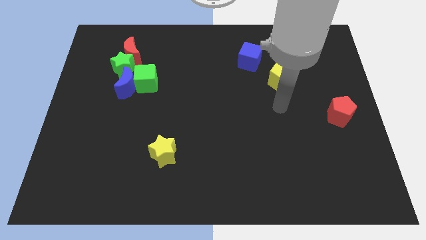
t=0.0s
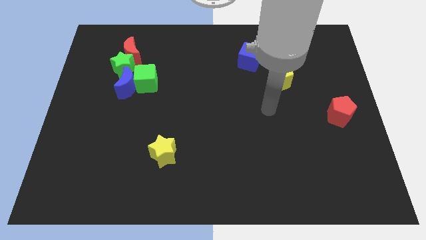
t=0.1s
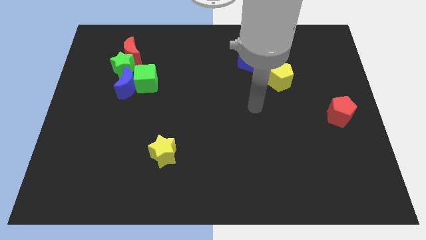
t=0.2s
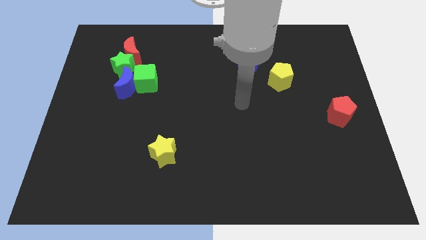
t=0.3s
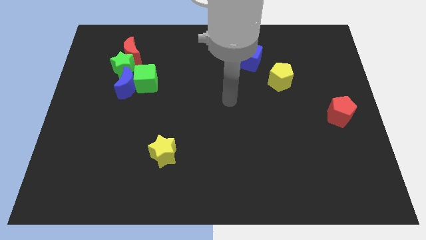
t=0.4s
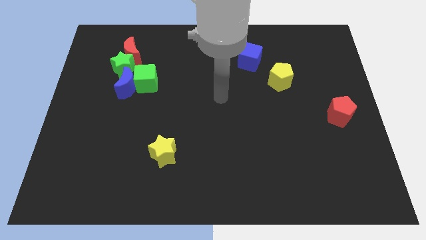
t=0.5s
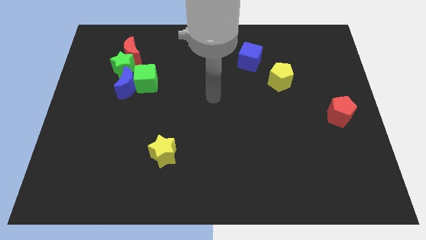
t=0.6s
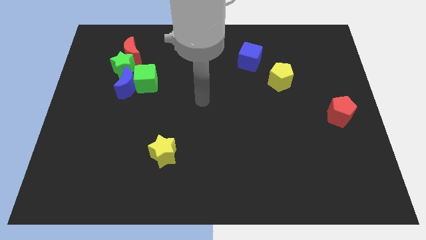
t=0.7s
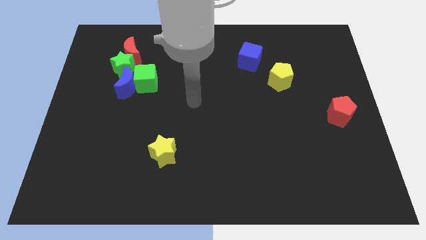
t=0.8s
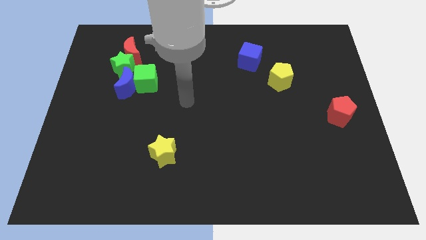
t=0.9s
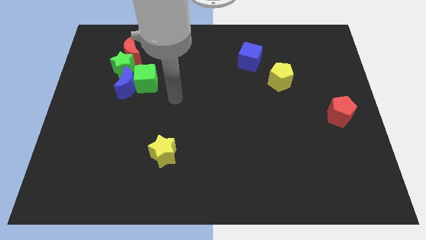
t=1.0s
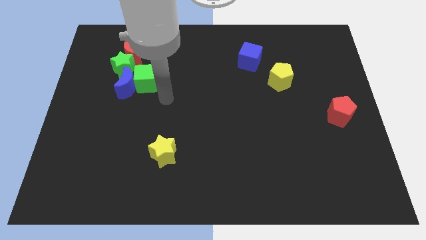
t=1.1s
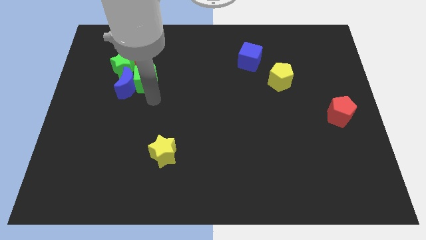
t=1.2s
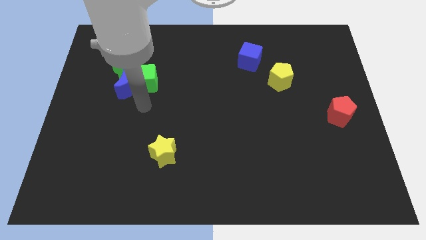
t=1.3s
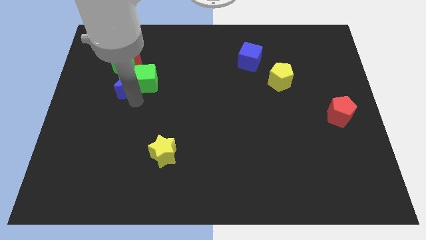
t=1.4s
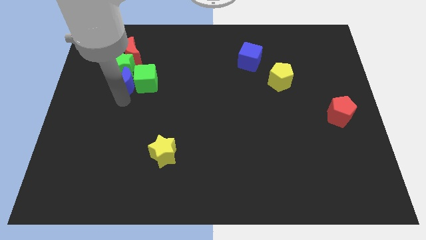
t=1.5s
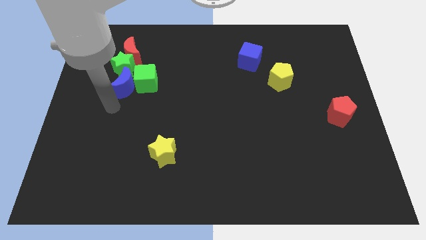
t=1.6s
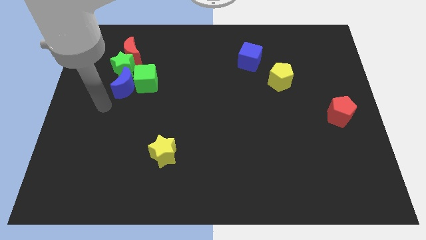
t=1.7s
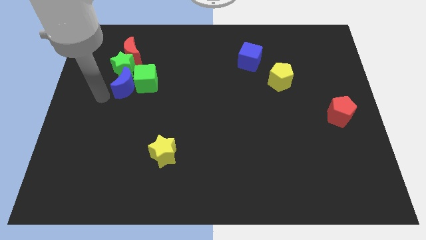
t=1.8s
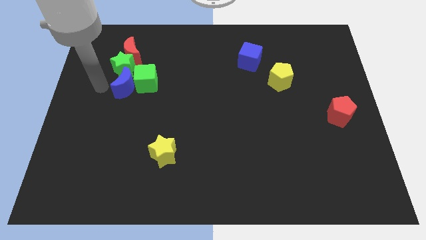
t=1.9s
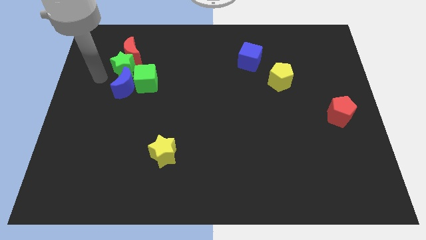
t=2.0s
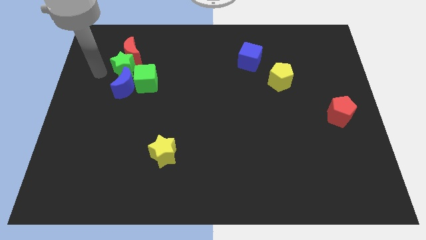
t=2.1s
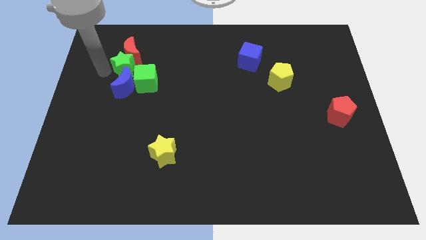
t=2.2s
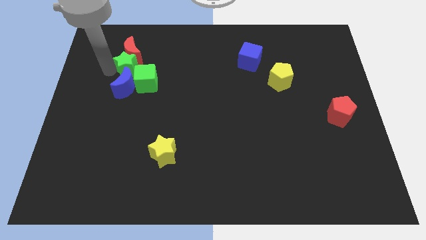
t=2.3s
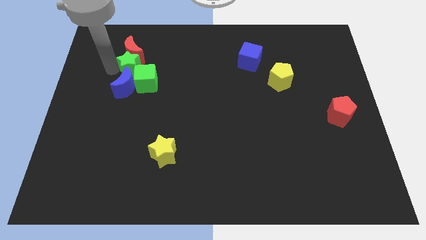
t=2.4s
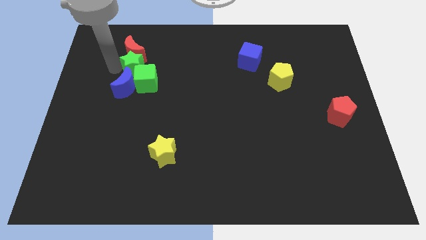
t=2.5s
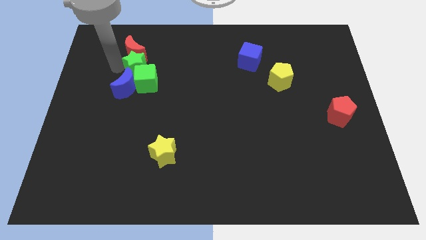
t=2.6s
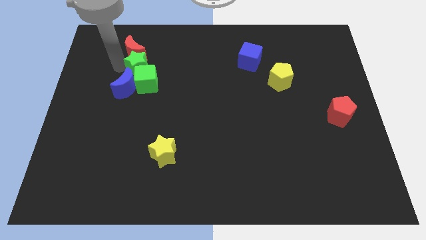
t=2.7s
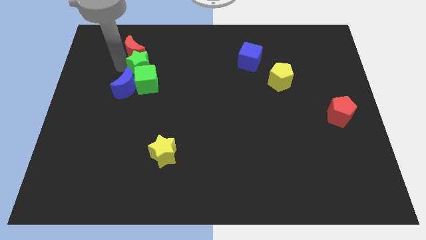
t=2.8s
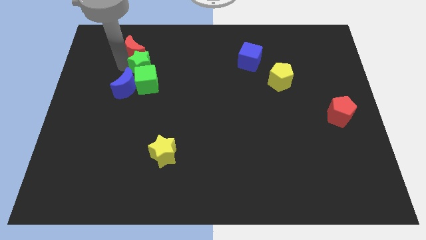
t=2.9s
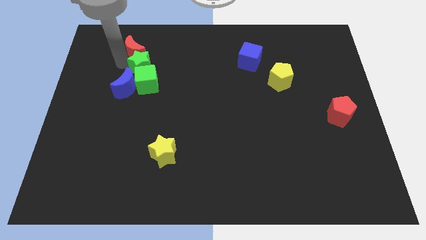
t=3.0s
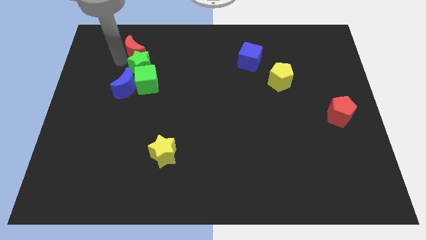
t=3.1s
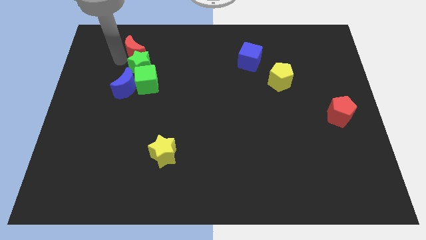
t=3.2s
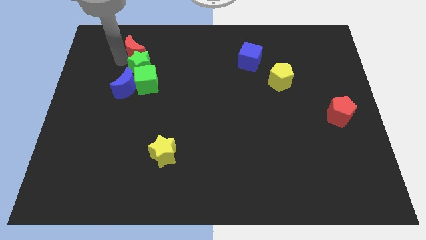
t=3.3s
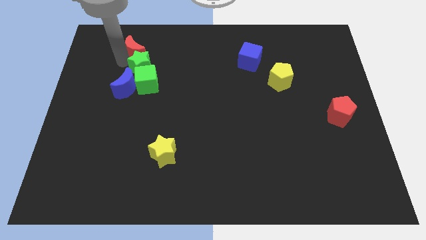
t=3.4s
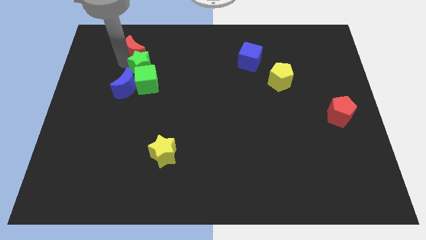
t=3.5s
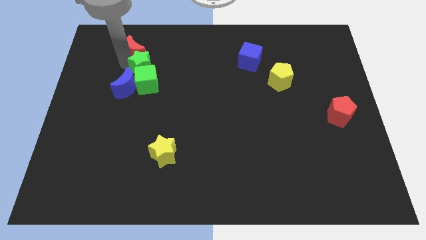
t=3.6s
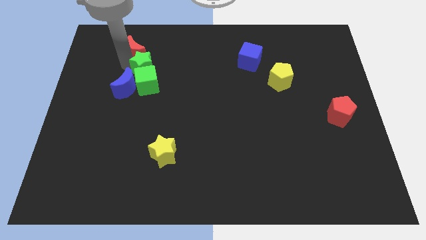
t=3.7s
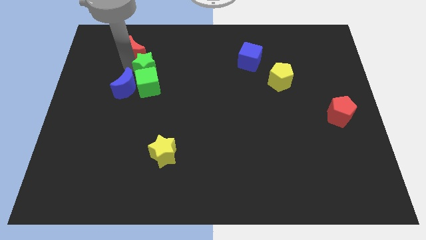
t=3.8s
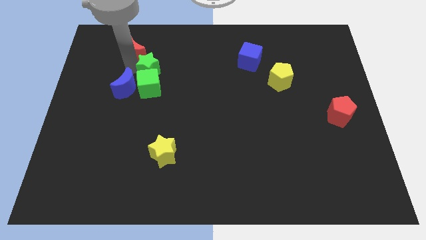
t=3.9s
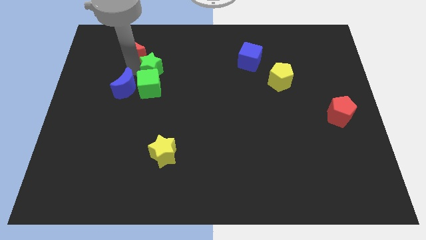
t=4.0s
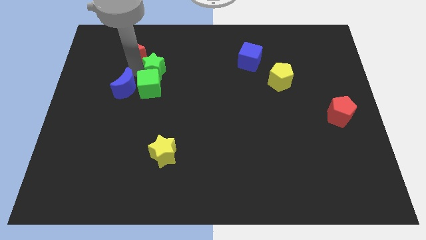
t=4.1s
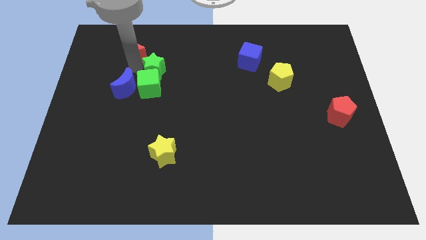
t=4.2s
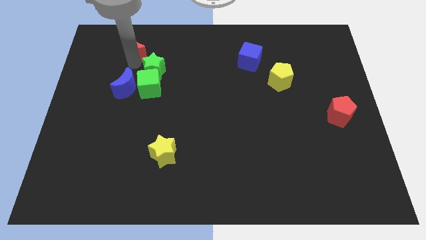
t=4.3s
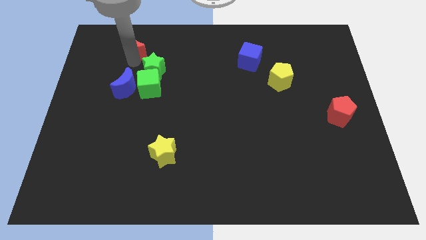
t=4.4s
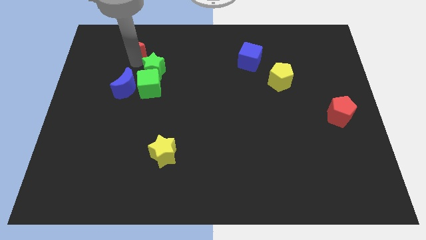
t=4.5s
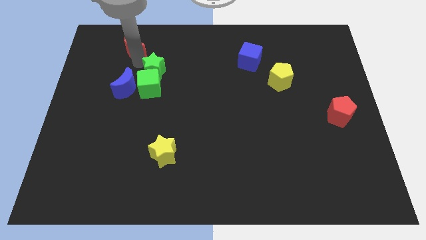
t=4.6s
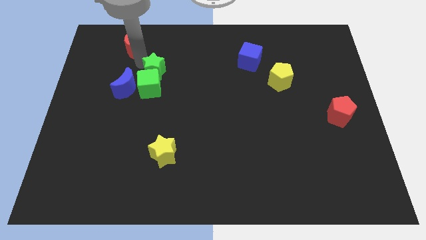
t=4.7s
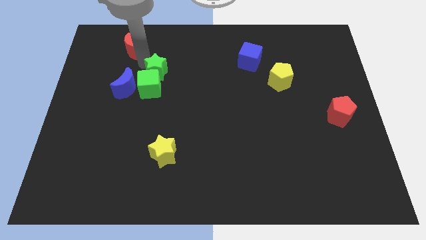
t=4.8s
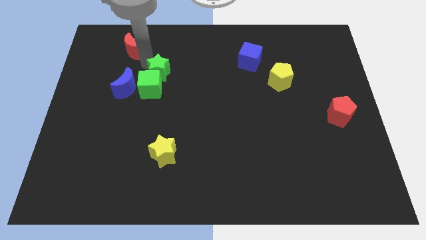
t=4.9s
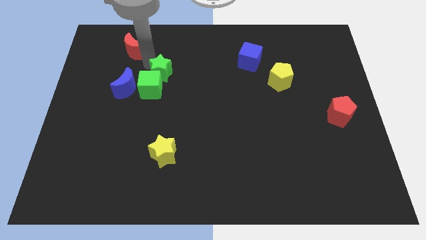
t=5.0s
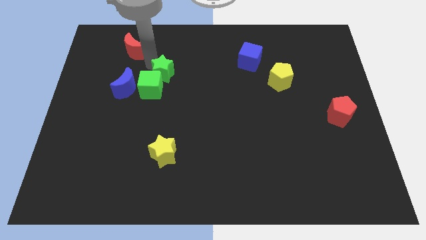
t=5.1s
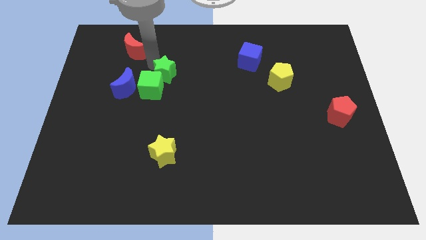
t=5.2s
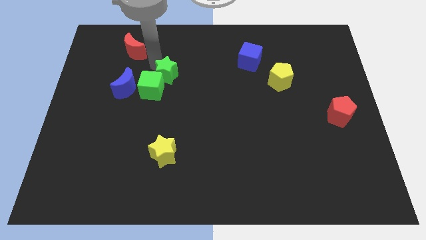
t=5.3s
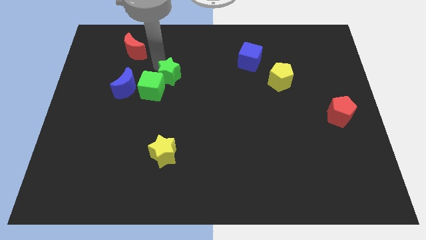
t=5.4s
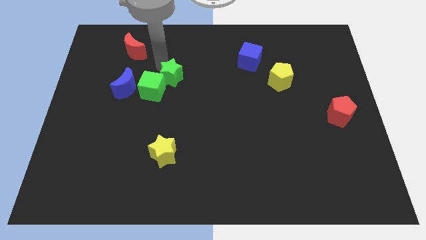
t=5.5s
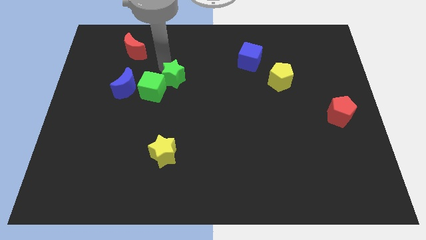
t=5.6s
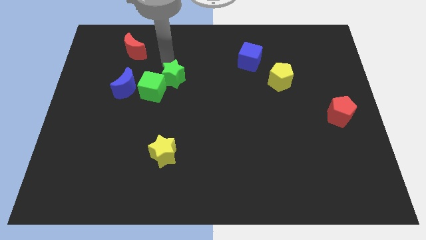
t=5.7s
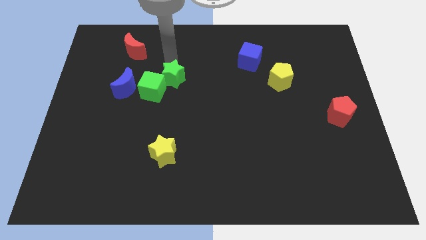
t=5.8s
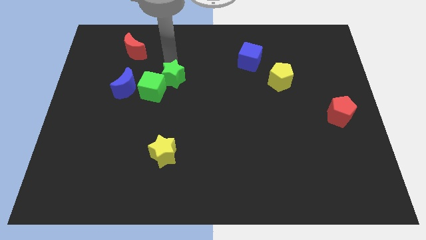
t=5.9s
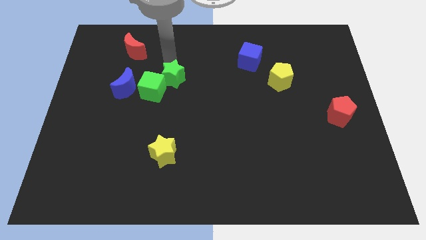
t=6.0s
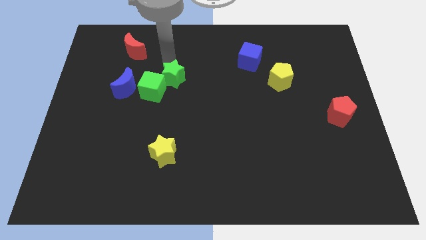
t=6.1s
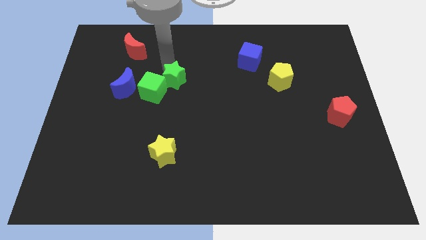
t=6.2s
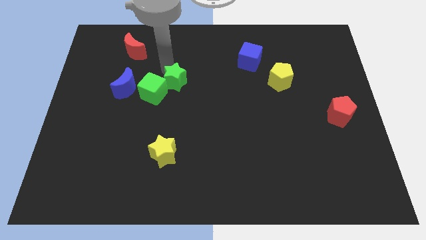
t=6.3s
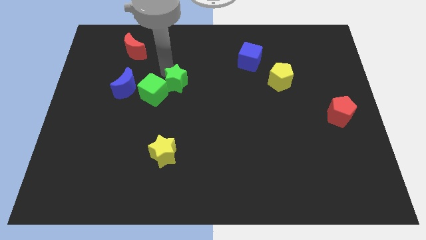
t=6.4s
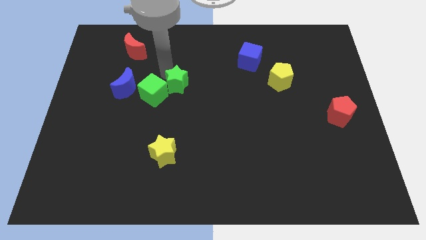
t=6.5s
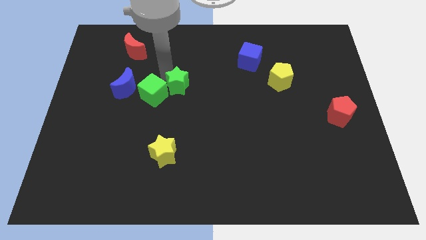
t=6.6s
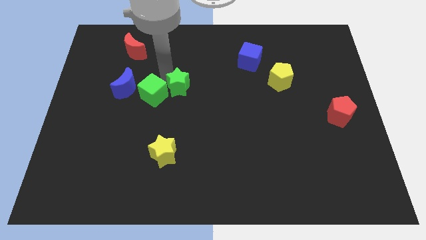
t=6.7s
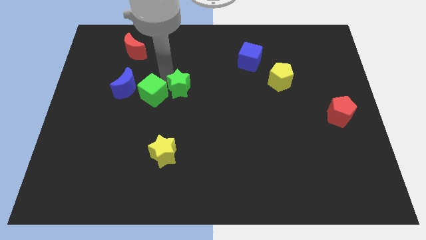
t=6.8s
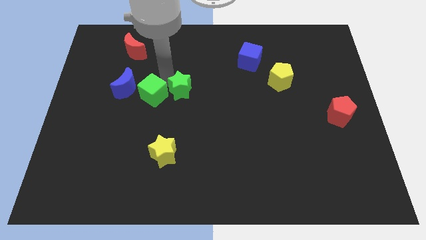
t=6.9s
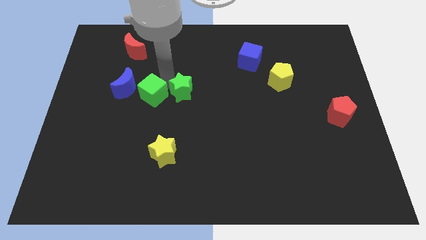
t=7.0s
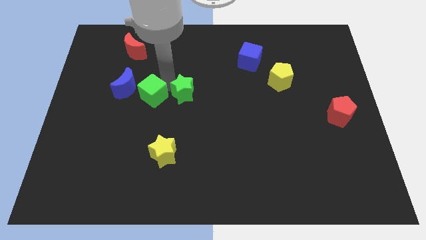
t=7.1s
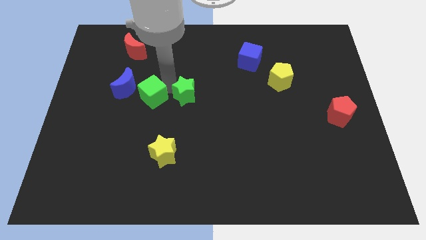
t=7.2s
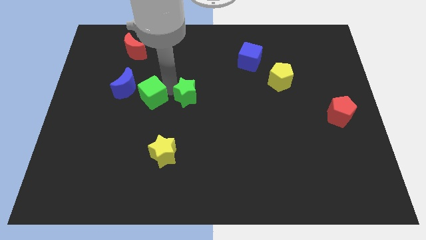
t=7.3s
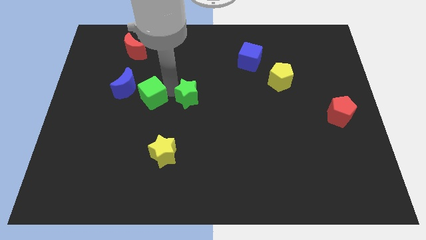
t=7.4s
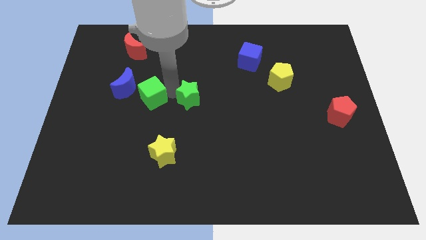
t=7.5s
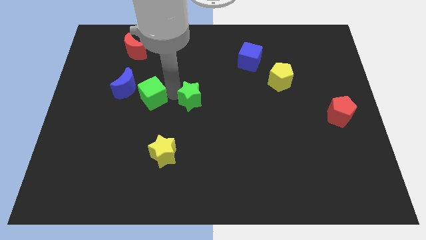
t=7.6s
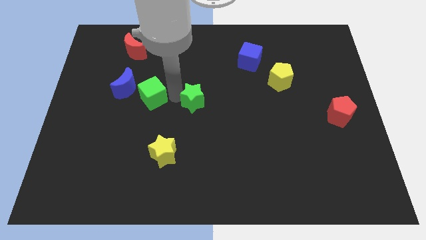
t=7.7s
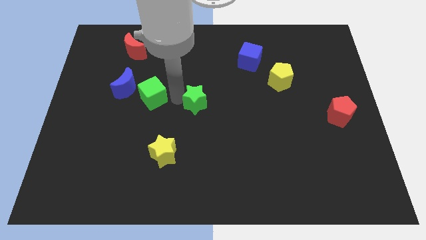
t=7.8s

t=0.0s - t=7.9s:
push the green star downwards and to the right diagonally
